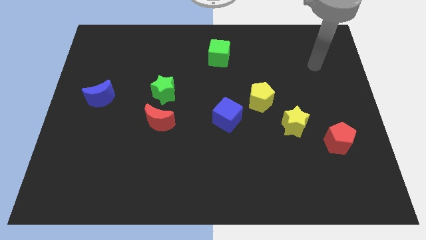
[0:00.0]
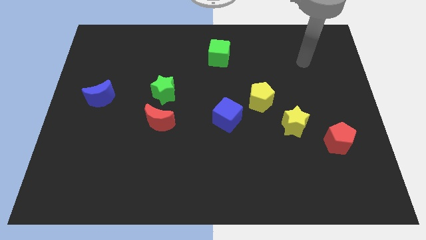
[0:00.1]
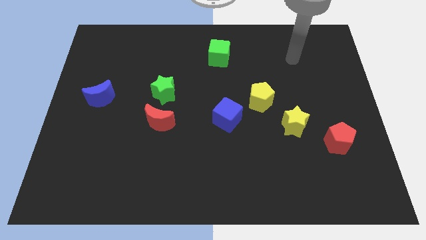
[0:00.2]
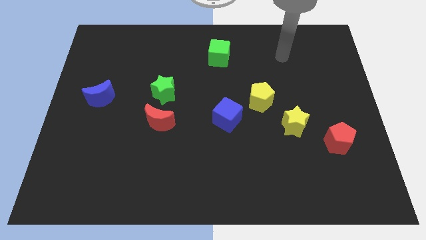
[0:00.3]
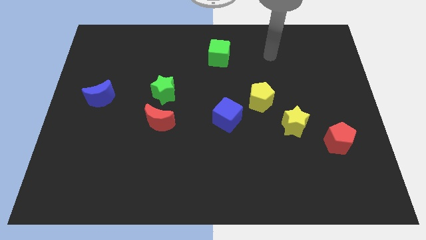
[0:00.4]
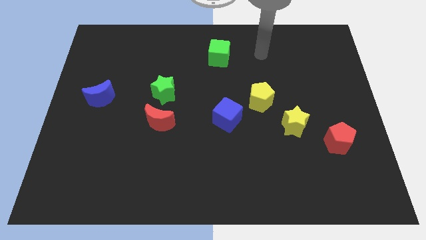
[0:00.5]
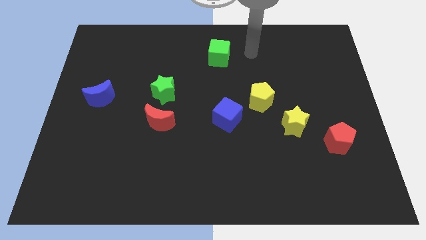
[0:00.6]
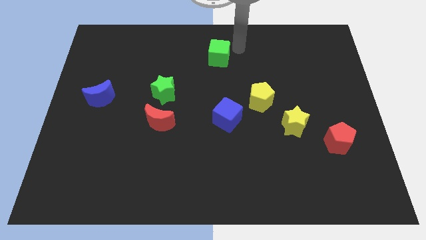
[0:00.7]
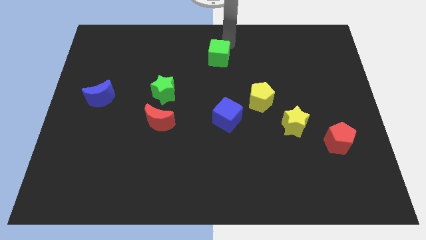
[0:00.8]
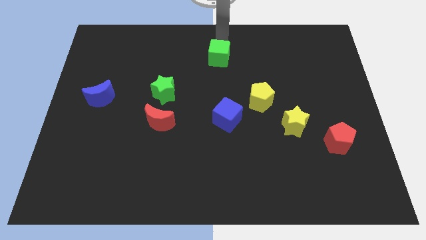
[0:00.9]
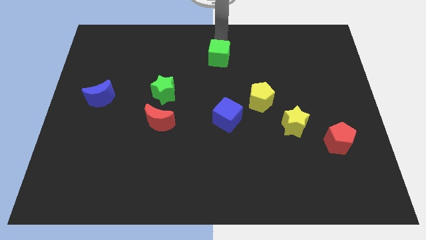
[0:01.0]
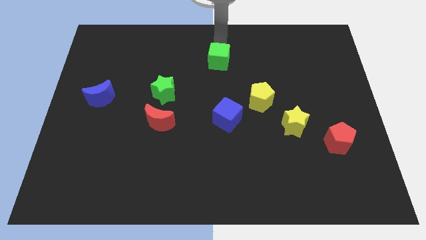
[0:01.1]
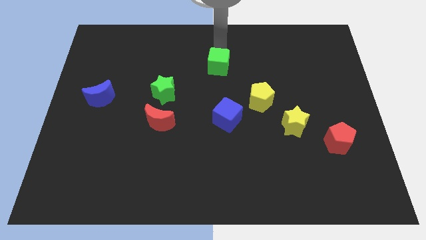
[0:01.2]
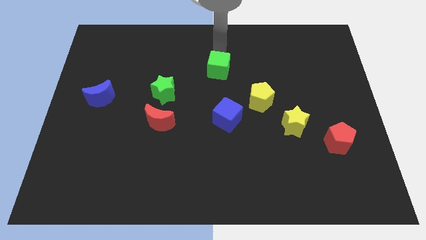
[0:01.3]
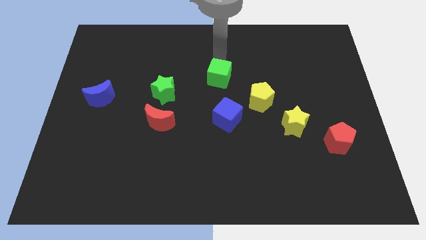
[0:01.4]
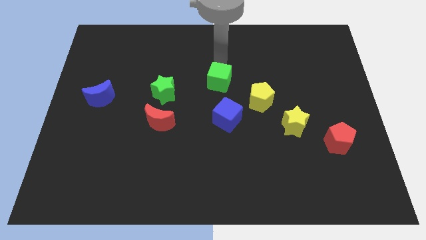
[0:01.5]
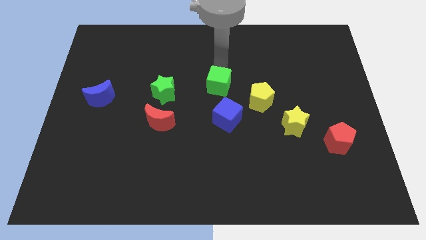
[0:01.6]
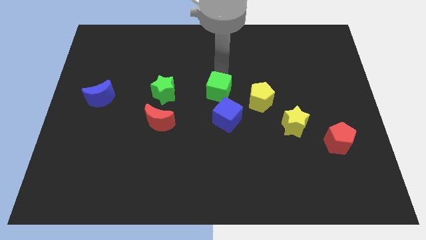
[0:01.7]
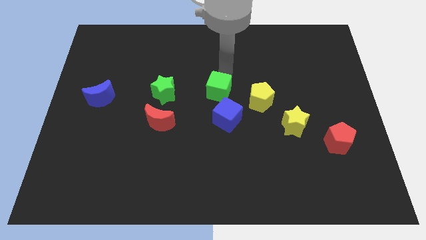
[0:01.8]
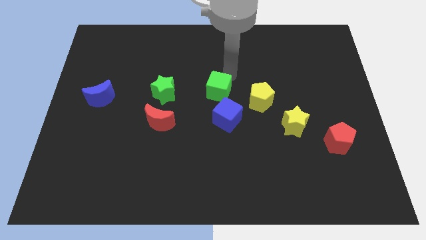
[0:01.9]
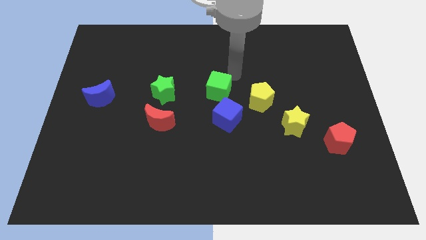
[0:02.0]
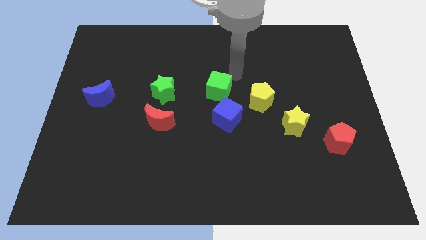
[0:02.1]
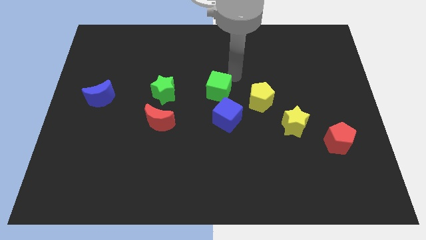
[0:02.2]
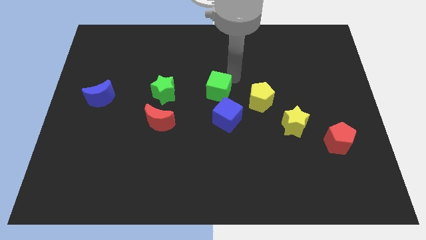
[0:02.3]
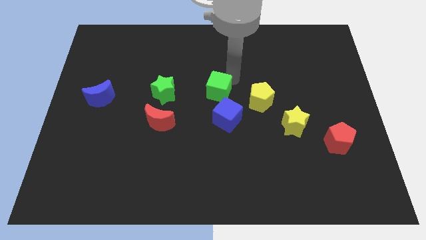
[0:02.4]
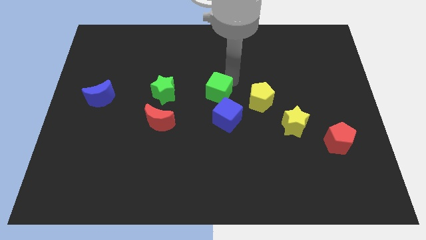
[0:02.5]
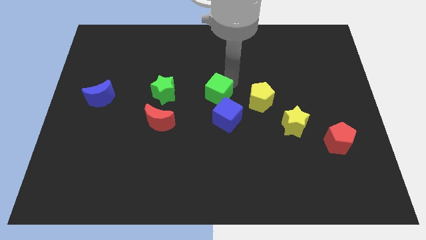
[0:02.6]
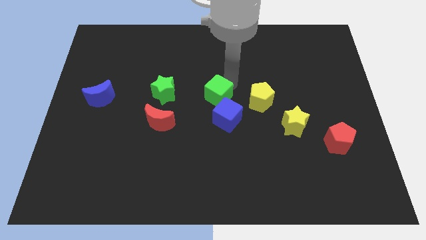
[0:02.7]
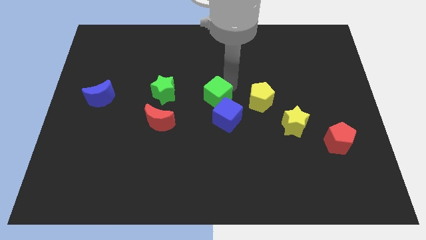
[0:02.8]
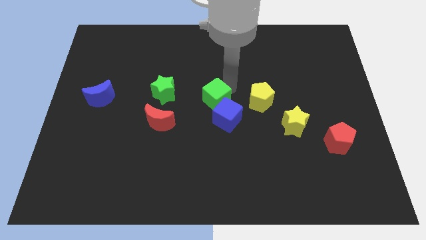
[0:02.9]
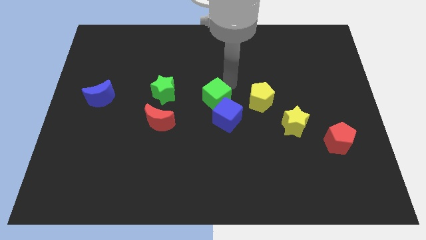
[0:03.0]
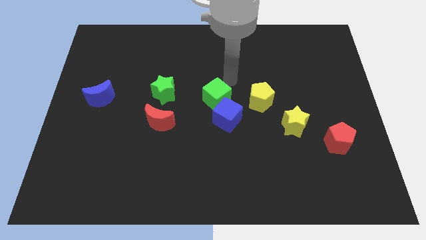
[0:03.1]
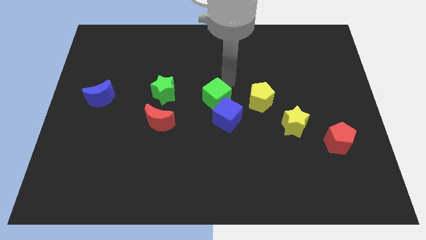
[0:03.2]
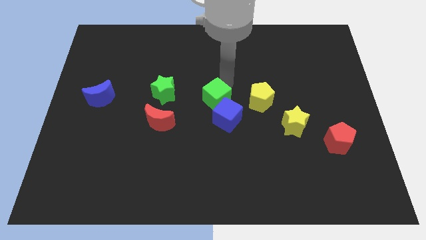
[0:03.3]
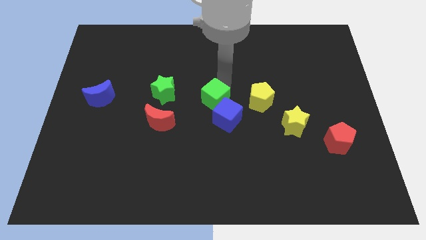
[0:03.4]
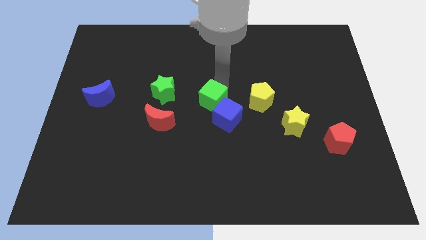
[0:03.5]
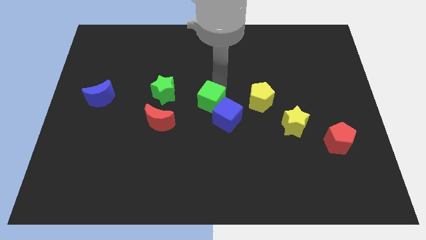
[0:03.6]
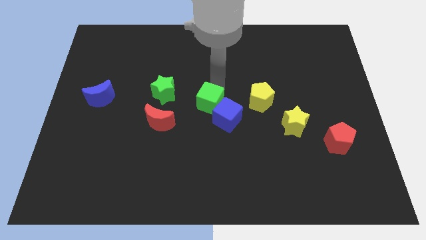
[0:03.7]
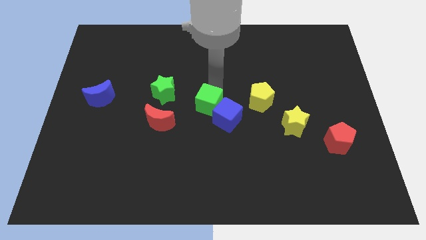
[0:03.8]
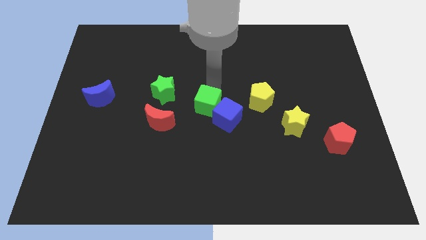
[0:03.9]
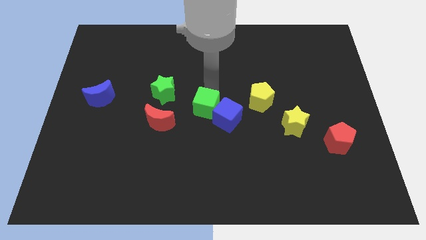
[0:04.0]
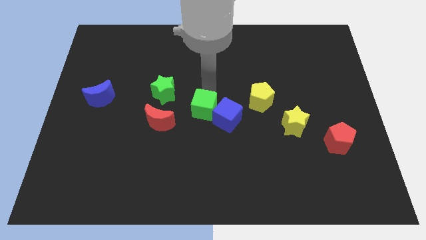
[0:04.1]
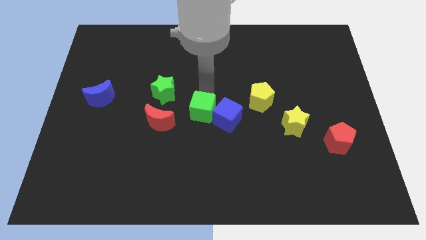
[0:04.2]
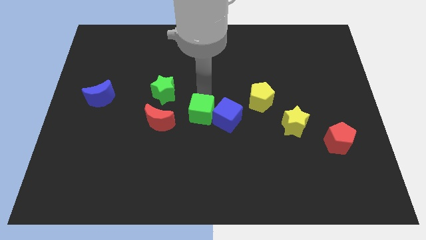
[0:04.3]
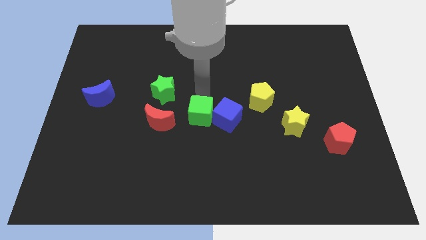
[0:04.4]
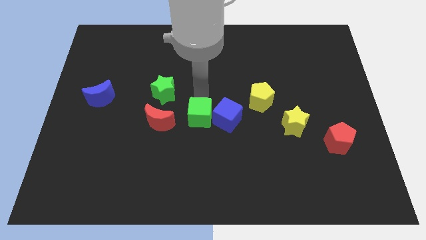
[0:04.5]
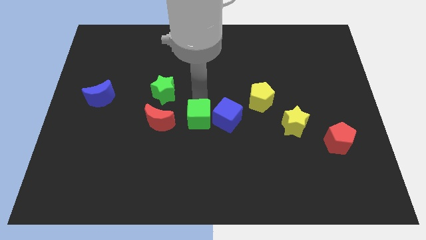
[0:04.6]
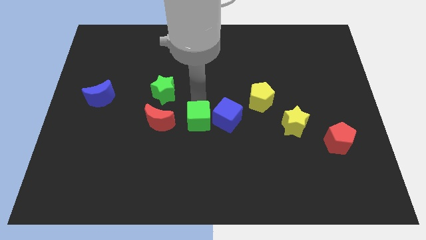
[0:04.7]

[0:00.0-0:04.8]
move the green cube down

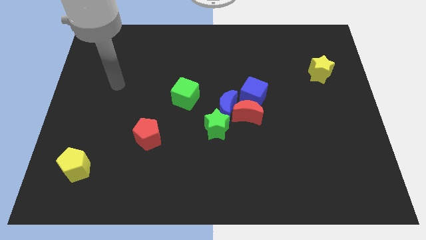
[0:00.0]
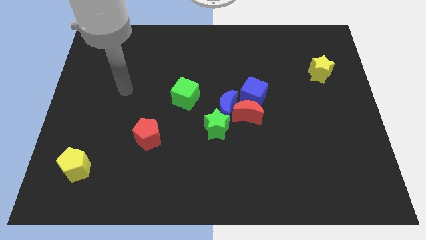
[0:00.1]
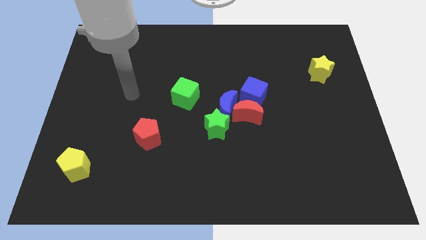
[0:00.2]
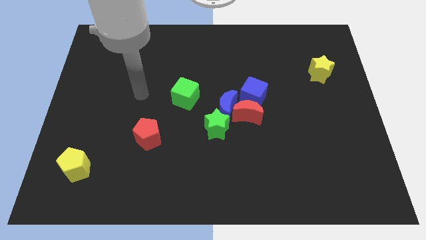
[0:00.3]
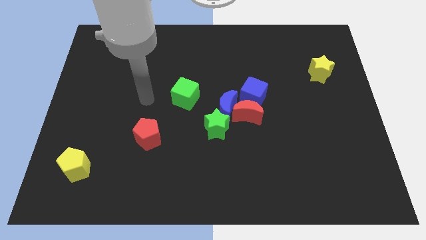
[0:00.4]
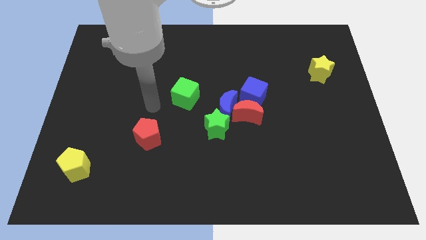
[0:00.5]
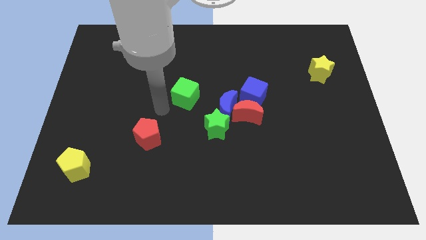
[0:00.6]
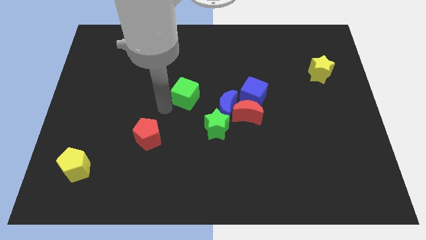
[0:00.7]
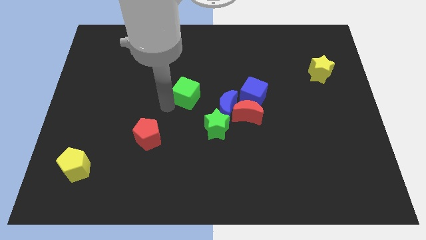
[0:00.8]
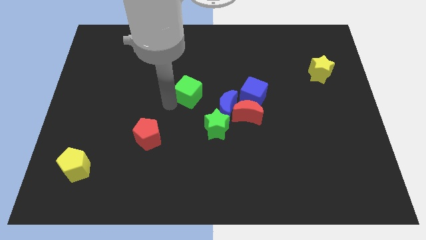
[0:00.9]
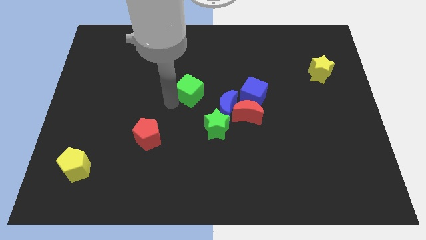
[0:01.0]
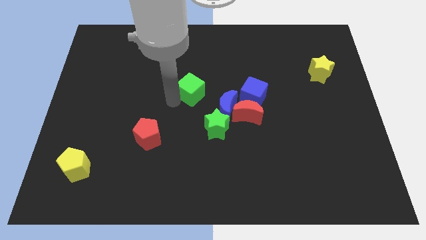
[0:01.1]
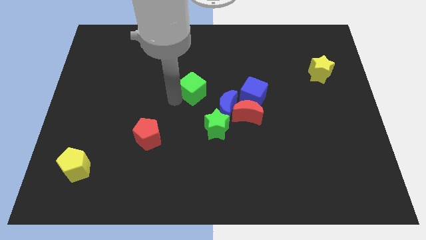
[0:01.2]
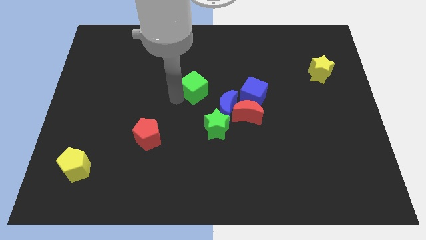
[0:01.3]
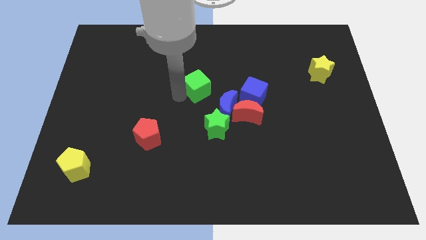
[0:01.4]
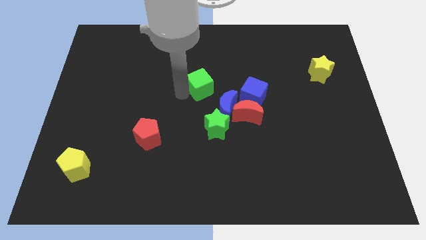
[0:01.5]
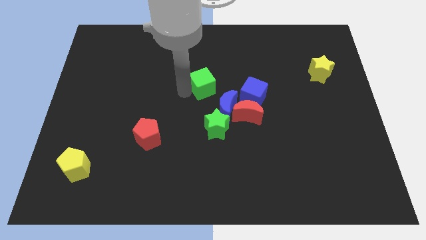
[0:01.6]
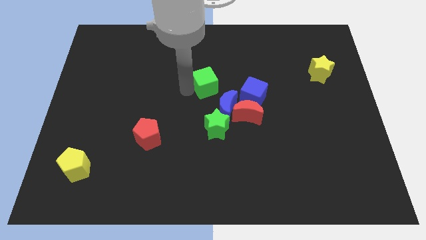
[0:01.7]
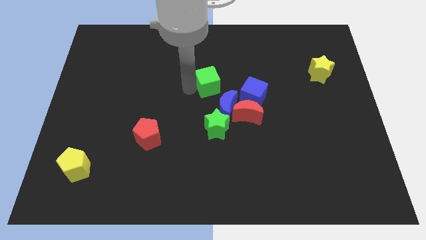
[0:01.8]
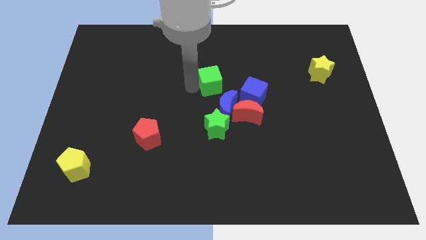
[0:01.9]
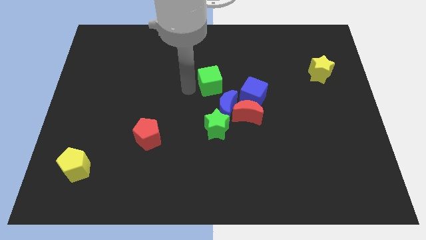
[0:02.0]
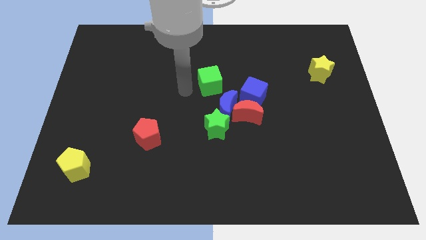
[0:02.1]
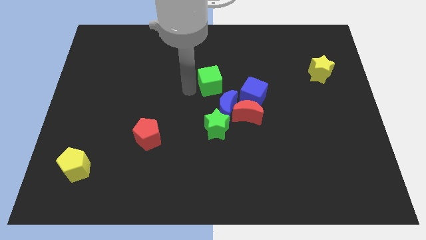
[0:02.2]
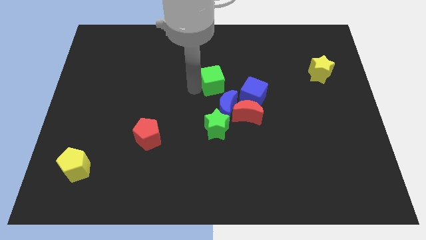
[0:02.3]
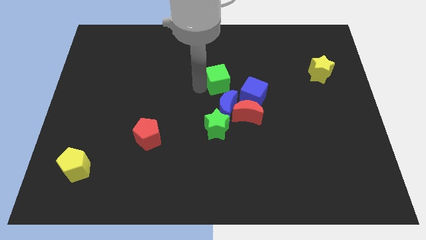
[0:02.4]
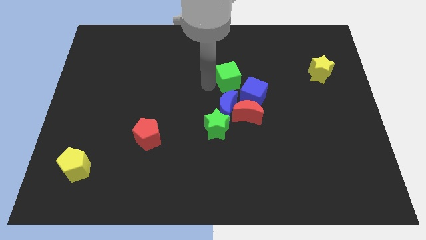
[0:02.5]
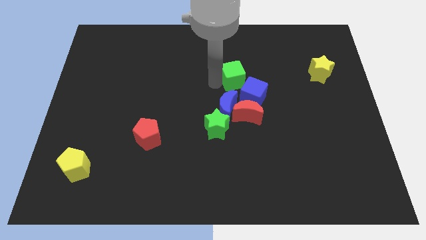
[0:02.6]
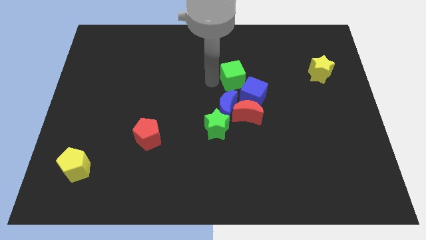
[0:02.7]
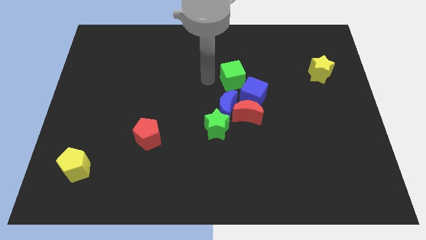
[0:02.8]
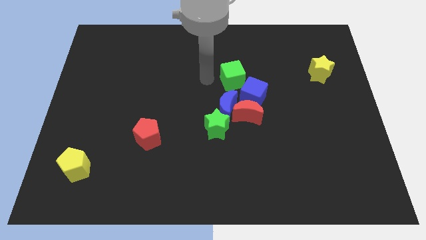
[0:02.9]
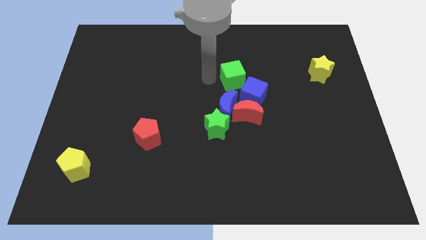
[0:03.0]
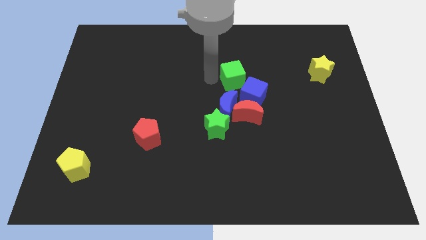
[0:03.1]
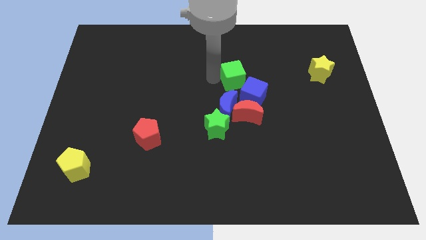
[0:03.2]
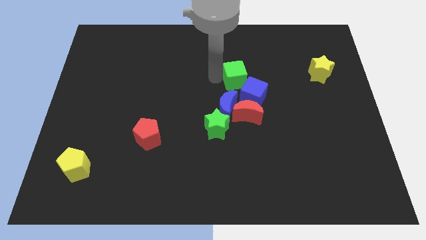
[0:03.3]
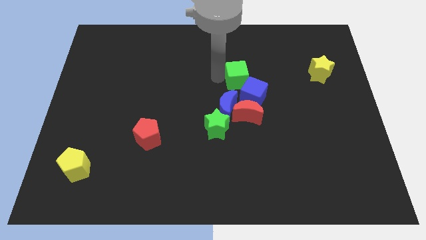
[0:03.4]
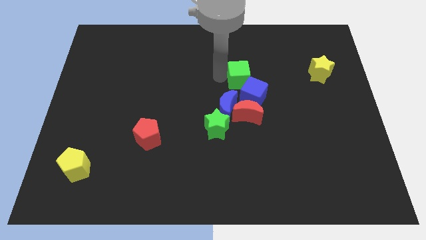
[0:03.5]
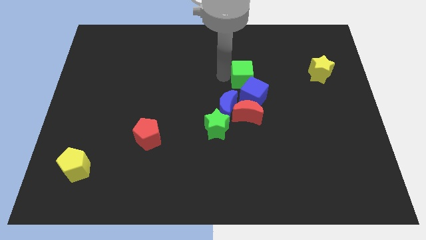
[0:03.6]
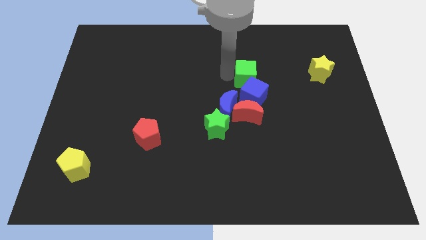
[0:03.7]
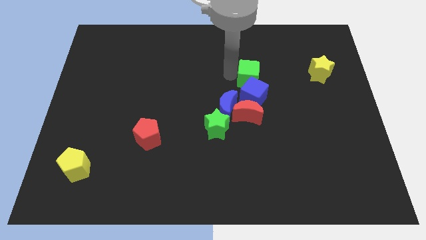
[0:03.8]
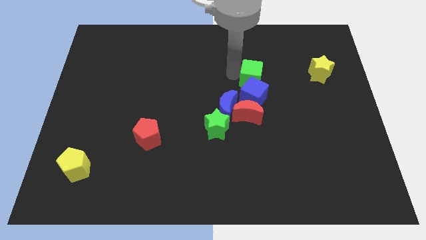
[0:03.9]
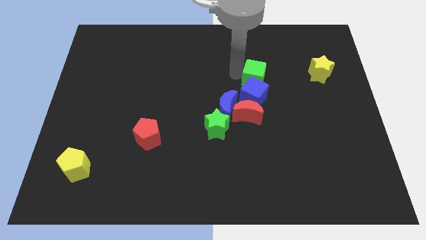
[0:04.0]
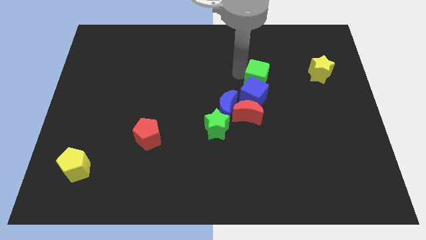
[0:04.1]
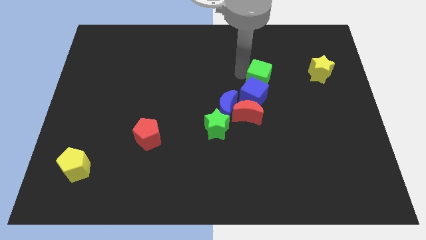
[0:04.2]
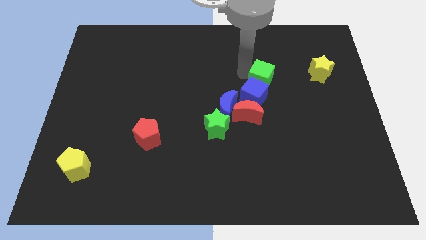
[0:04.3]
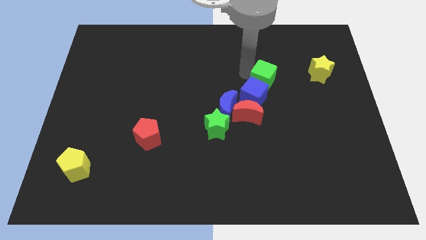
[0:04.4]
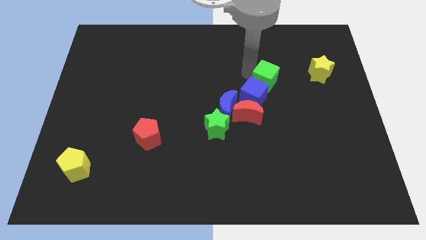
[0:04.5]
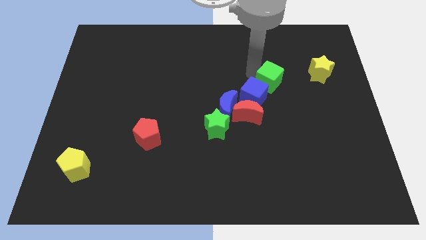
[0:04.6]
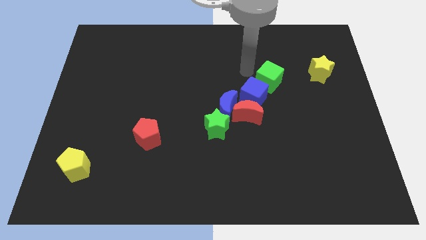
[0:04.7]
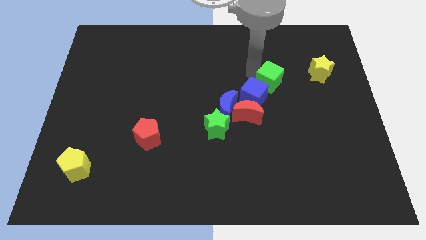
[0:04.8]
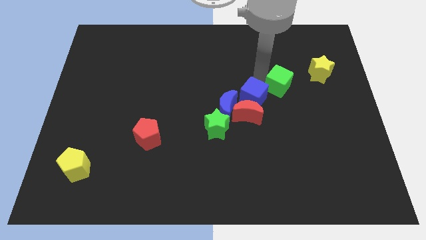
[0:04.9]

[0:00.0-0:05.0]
push the green cube to the right
